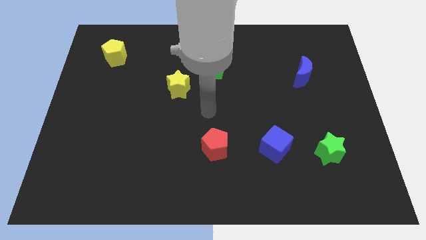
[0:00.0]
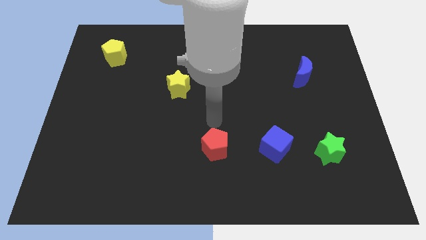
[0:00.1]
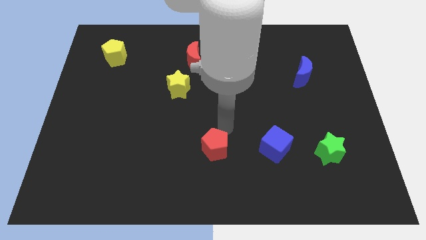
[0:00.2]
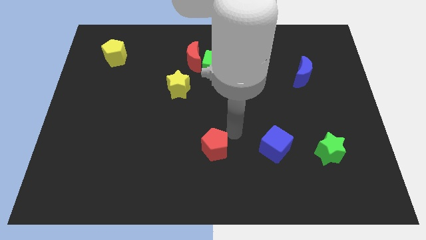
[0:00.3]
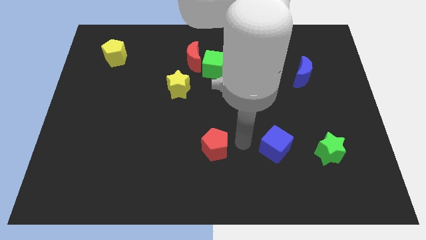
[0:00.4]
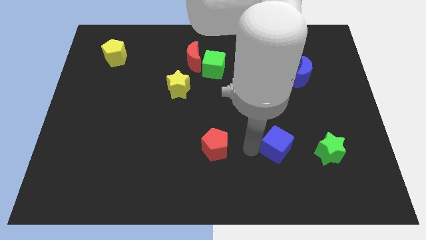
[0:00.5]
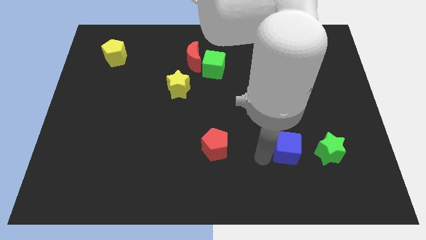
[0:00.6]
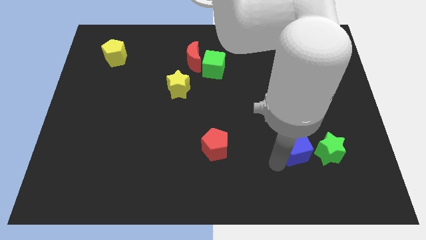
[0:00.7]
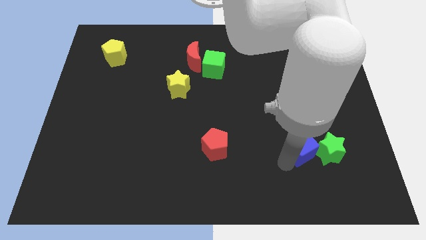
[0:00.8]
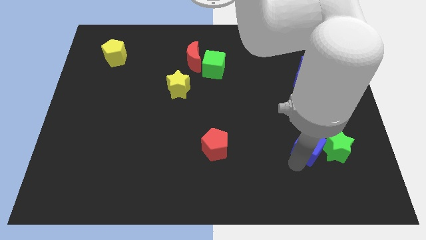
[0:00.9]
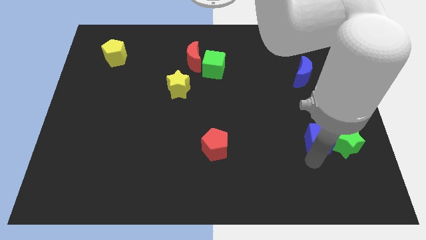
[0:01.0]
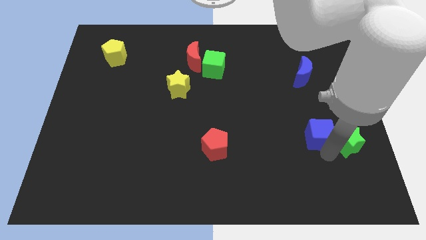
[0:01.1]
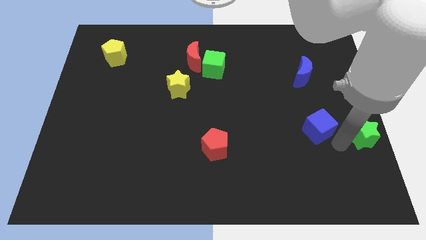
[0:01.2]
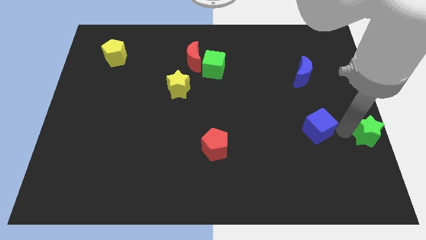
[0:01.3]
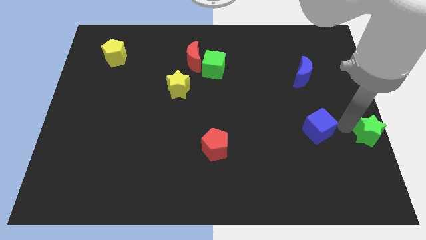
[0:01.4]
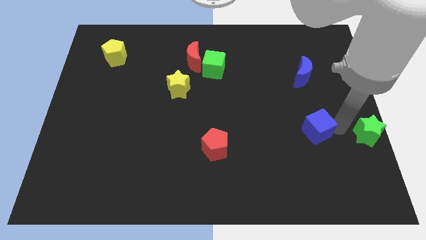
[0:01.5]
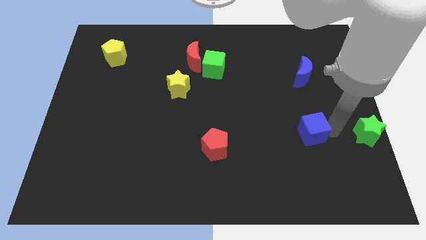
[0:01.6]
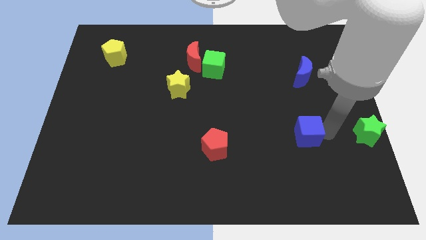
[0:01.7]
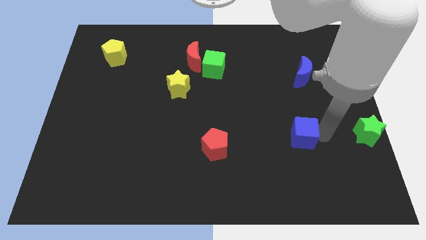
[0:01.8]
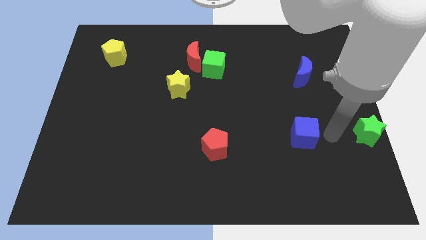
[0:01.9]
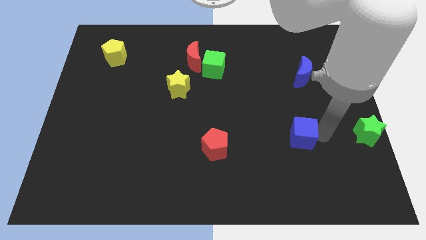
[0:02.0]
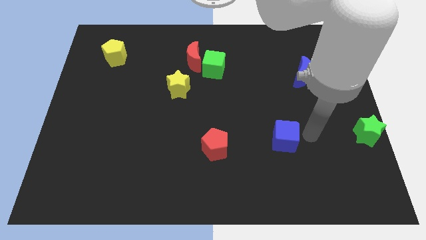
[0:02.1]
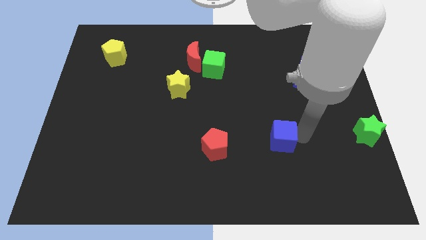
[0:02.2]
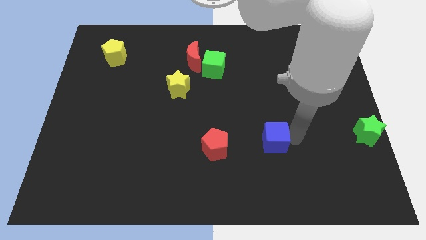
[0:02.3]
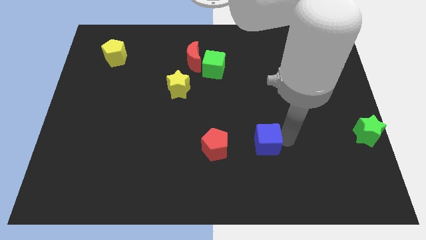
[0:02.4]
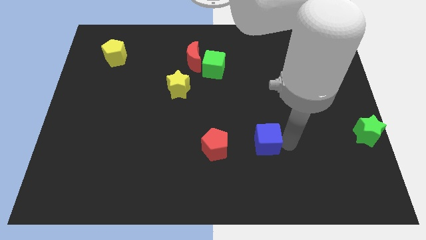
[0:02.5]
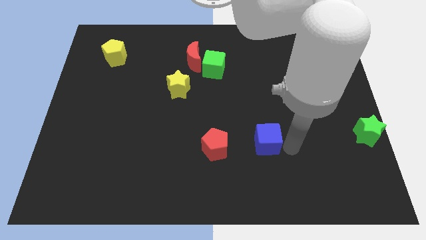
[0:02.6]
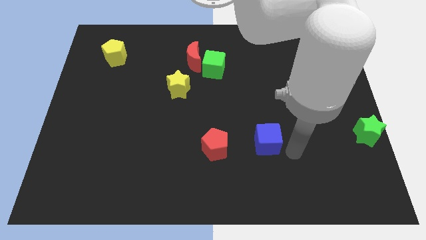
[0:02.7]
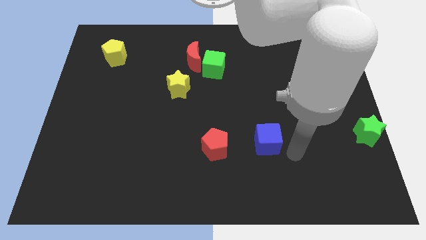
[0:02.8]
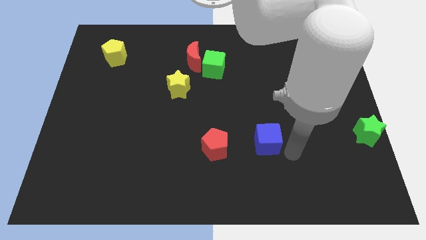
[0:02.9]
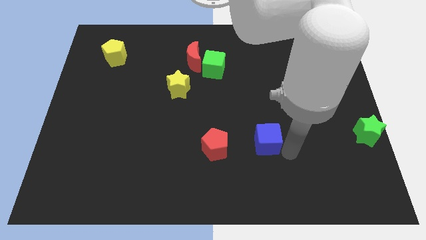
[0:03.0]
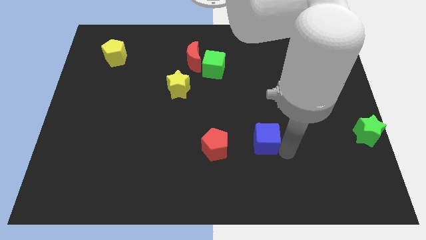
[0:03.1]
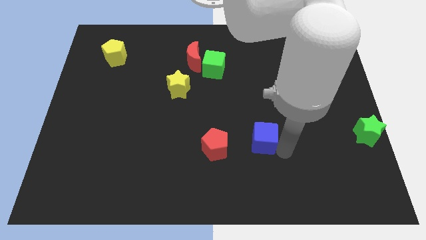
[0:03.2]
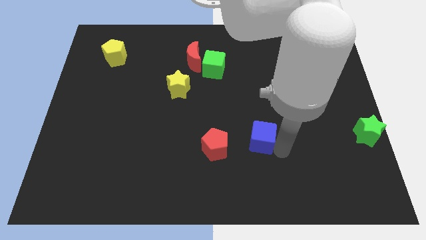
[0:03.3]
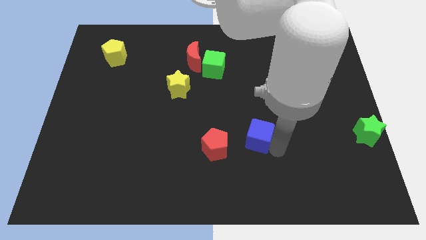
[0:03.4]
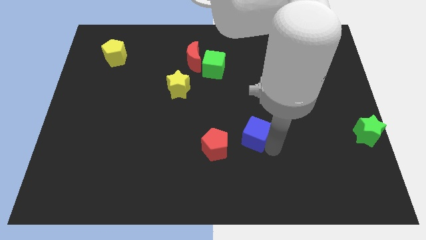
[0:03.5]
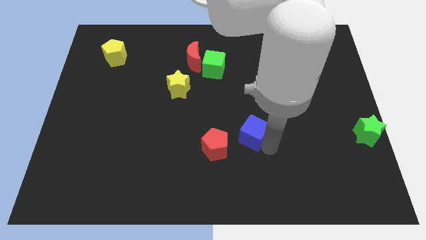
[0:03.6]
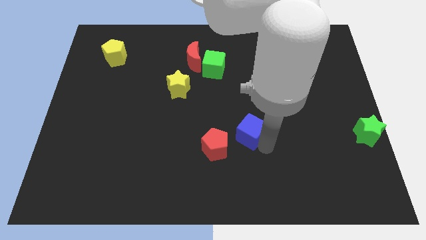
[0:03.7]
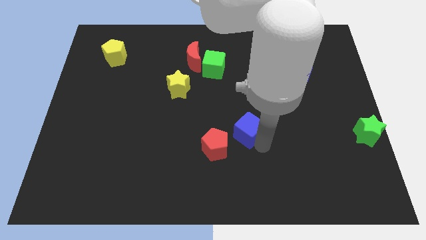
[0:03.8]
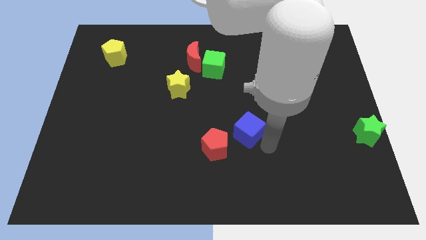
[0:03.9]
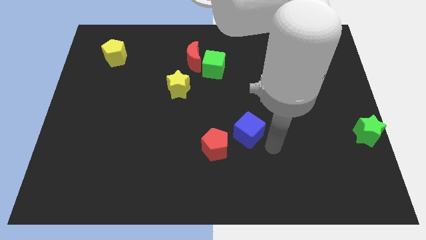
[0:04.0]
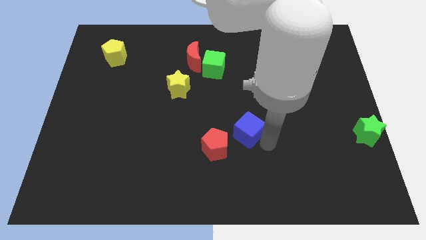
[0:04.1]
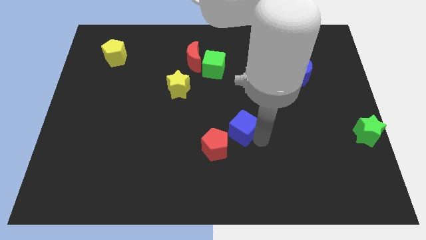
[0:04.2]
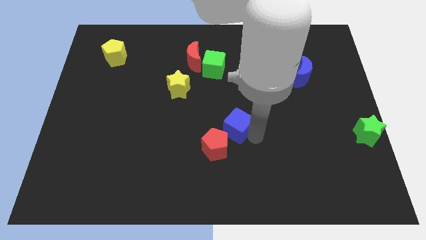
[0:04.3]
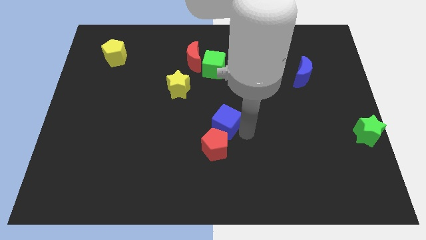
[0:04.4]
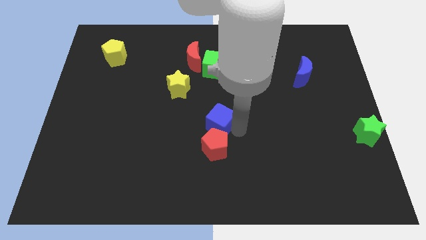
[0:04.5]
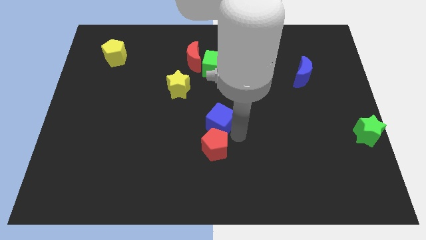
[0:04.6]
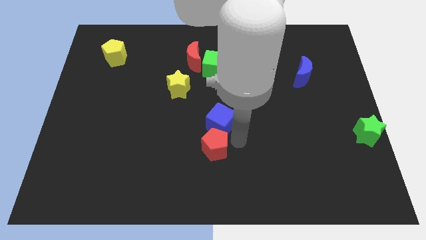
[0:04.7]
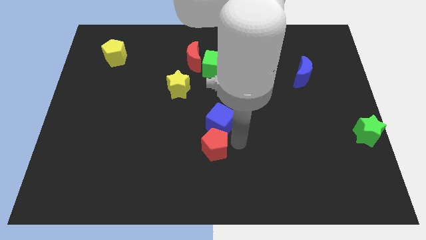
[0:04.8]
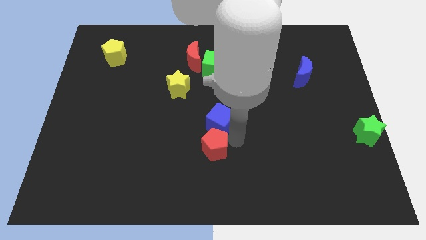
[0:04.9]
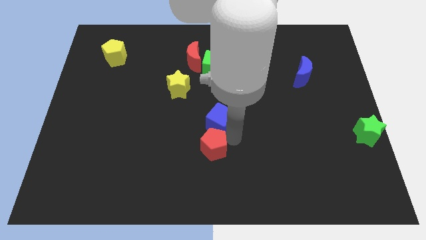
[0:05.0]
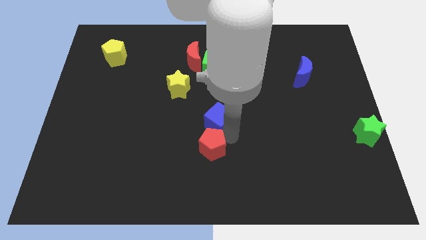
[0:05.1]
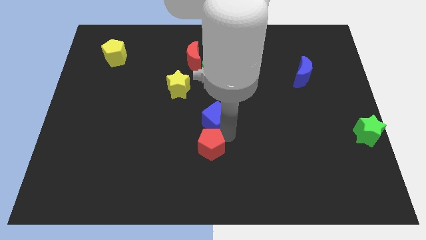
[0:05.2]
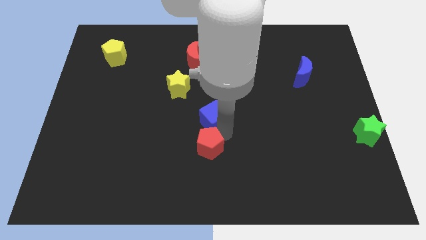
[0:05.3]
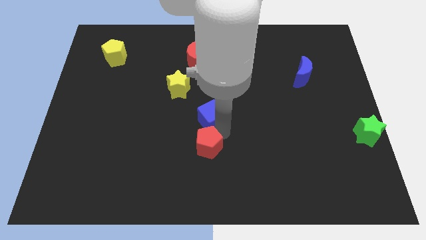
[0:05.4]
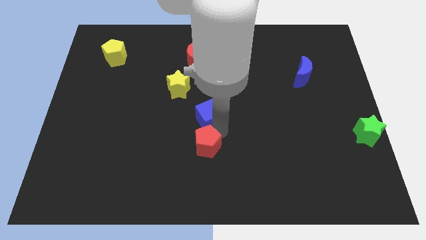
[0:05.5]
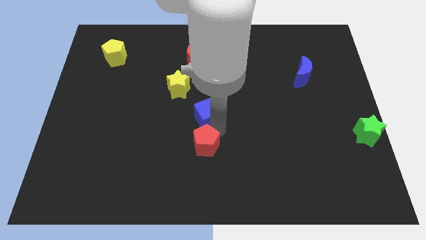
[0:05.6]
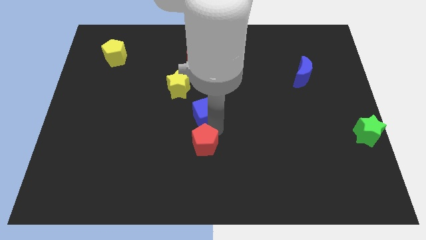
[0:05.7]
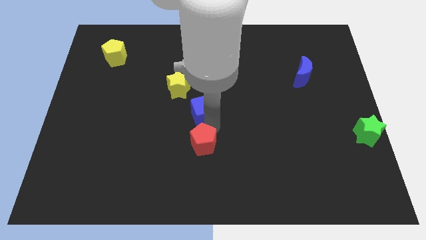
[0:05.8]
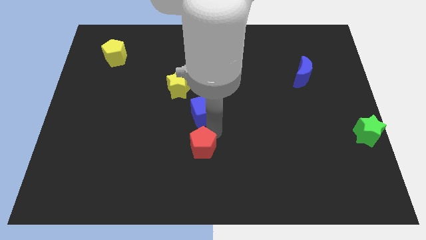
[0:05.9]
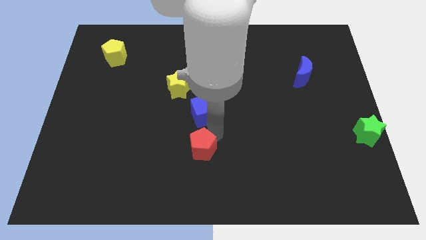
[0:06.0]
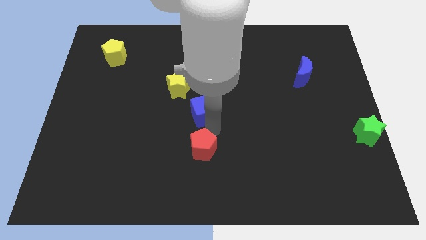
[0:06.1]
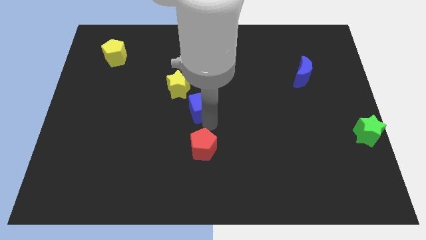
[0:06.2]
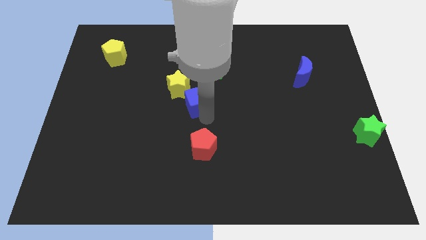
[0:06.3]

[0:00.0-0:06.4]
slide the blue cube to the bottom side of the red moon

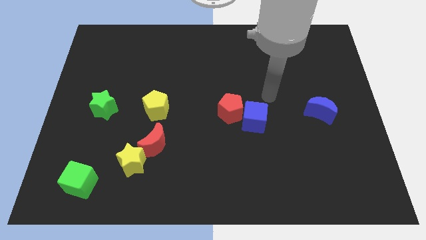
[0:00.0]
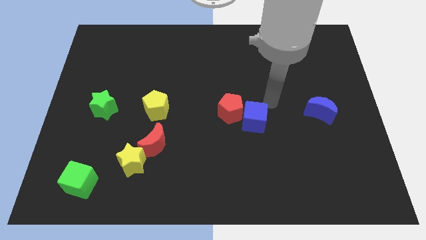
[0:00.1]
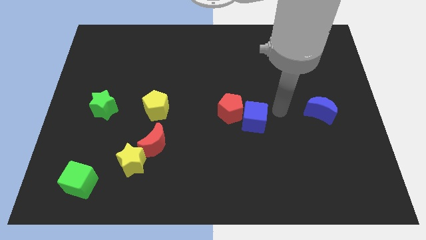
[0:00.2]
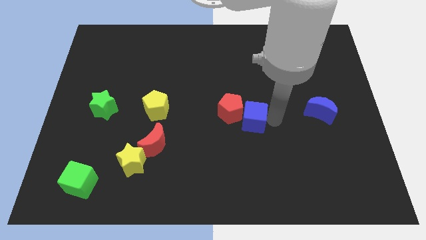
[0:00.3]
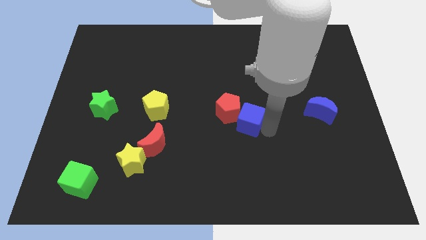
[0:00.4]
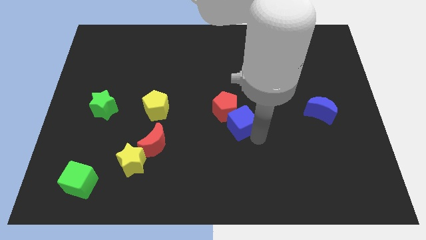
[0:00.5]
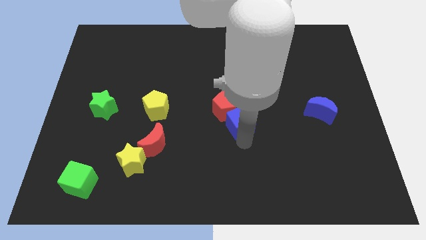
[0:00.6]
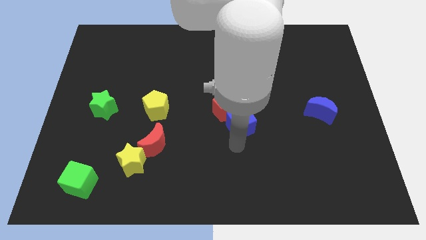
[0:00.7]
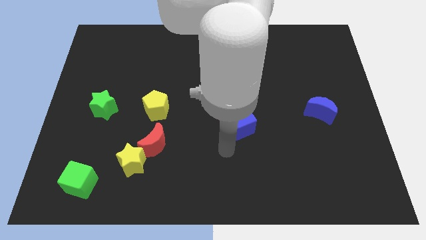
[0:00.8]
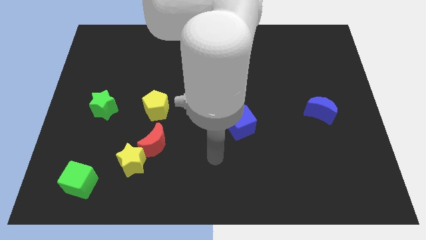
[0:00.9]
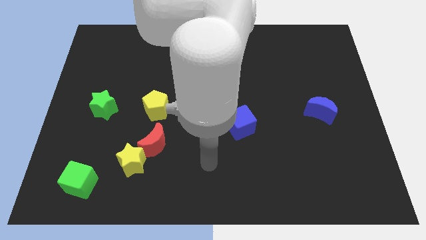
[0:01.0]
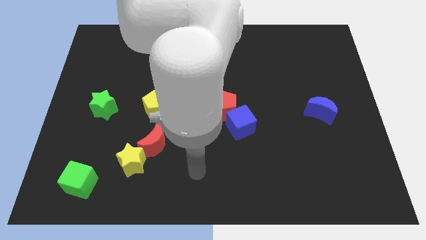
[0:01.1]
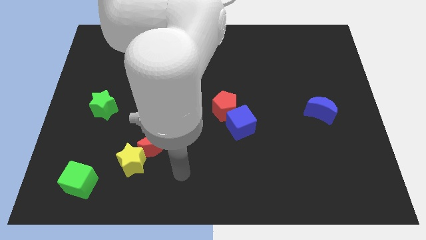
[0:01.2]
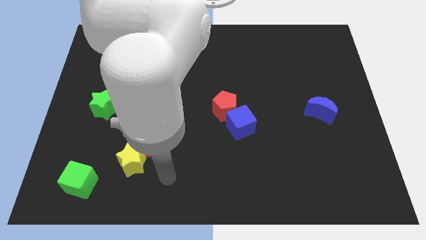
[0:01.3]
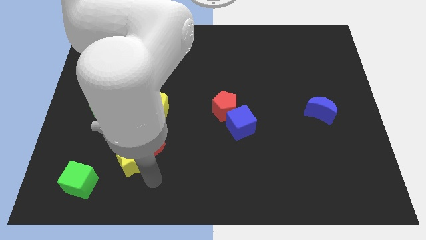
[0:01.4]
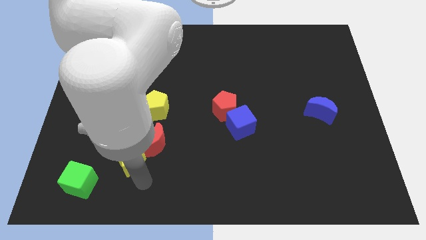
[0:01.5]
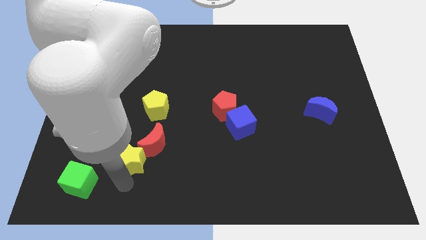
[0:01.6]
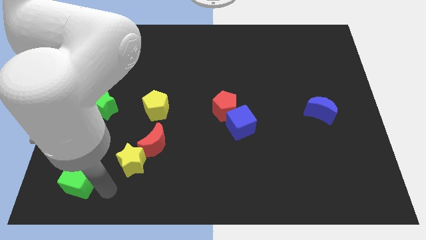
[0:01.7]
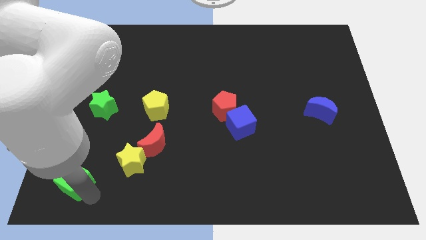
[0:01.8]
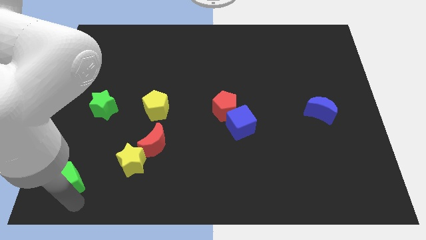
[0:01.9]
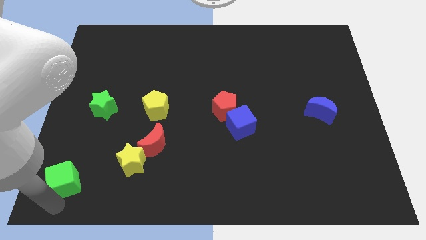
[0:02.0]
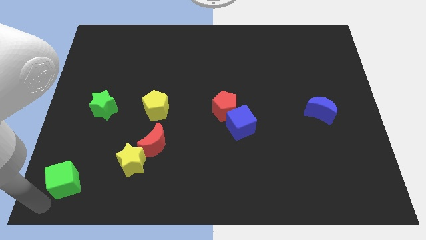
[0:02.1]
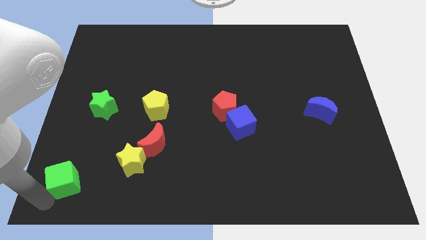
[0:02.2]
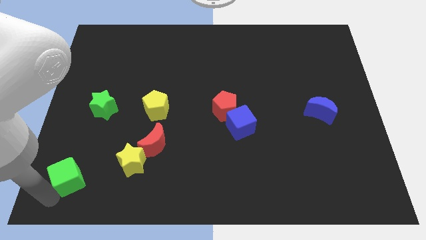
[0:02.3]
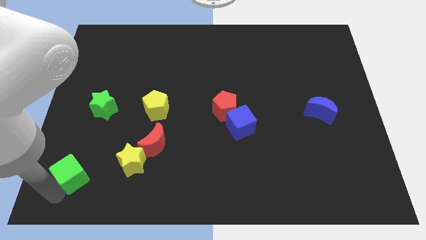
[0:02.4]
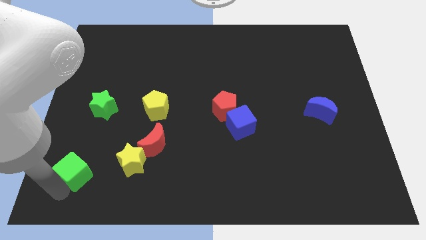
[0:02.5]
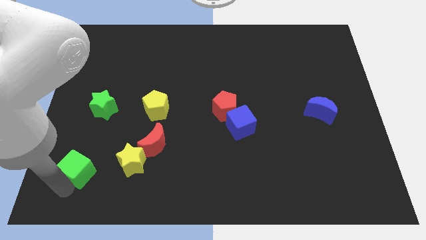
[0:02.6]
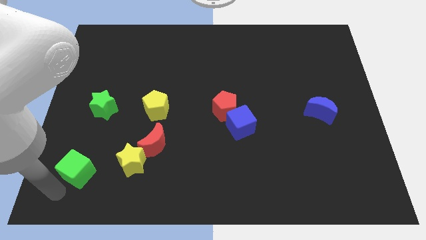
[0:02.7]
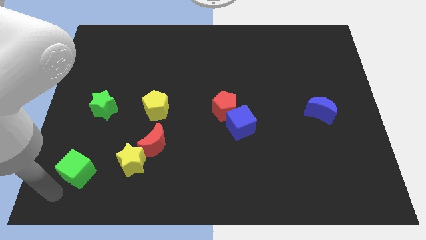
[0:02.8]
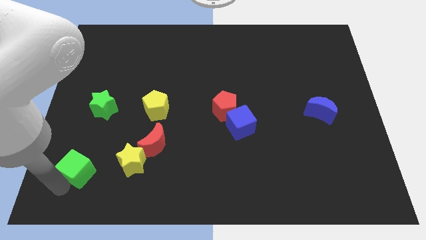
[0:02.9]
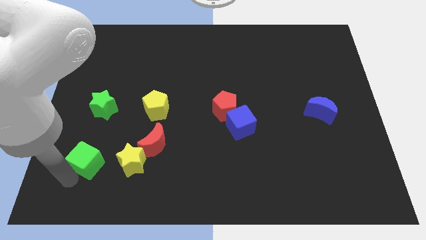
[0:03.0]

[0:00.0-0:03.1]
put the green cube to the left of the red moon
